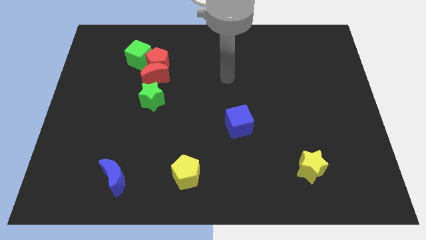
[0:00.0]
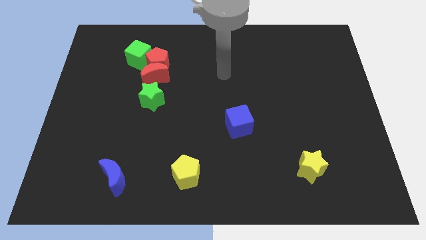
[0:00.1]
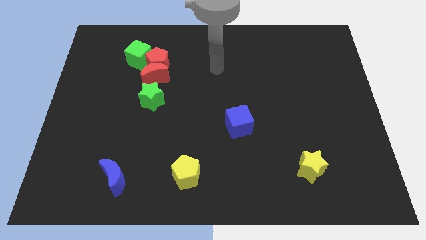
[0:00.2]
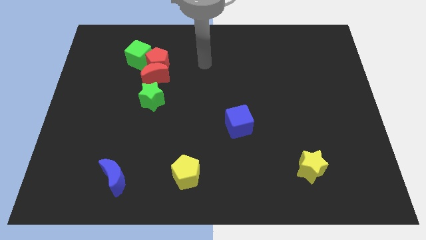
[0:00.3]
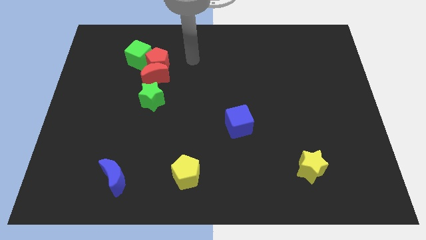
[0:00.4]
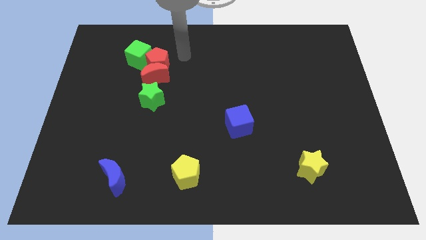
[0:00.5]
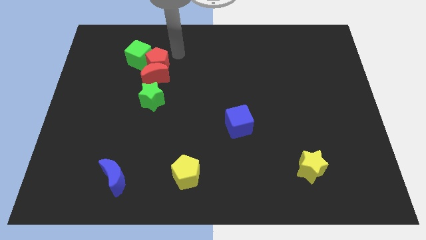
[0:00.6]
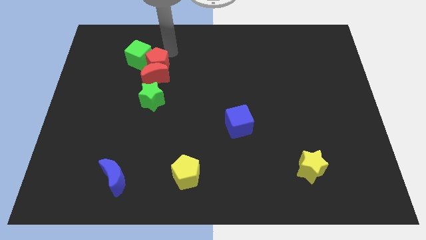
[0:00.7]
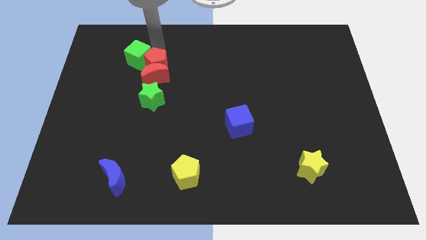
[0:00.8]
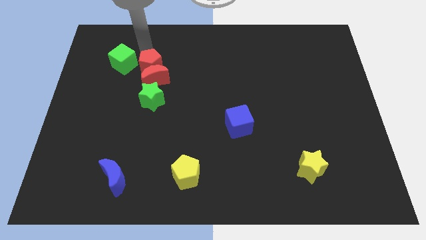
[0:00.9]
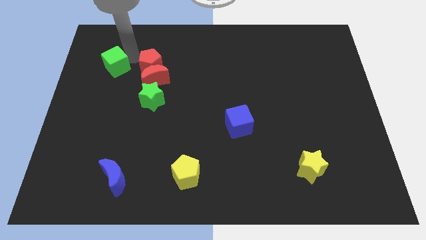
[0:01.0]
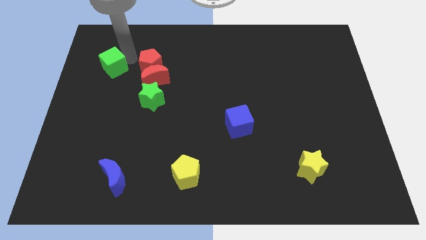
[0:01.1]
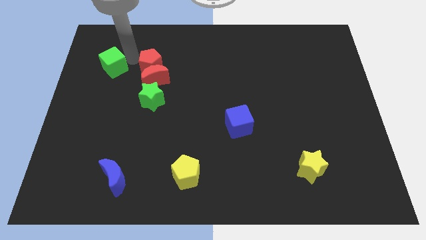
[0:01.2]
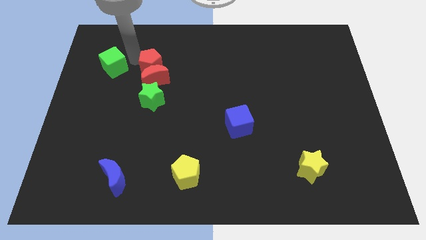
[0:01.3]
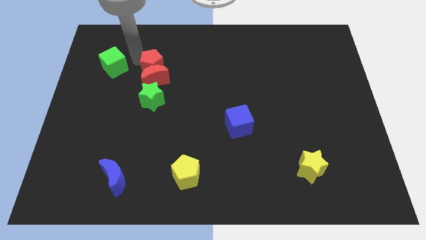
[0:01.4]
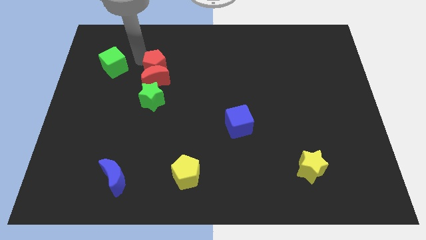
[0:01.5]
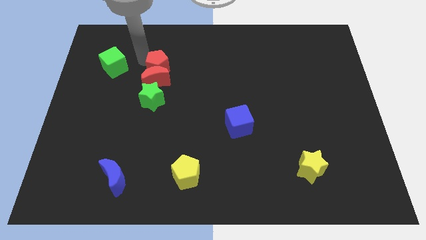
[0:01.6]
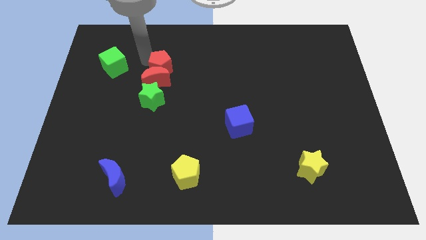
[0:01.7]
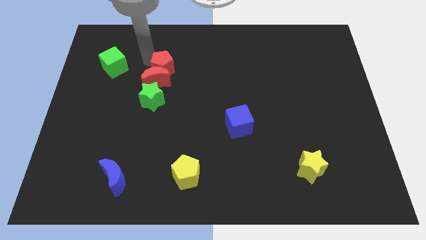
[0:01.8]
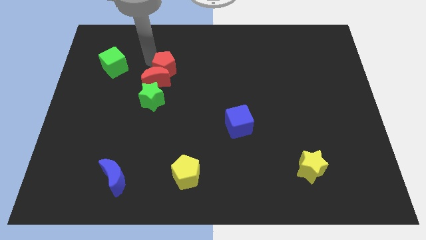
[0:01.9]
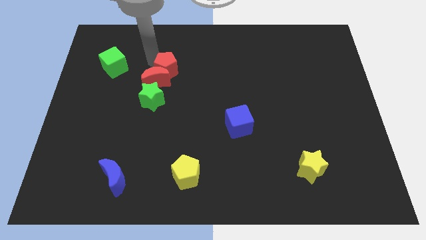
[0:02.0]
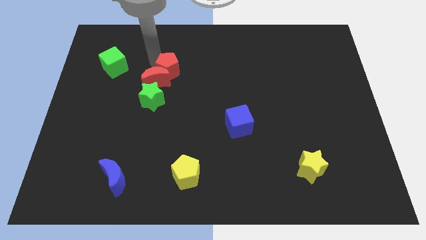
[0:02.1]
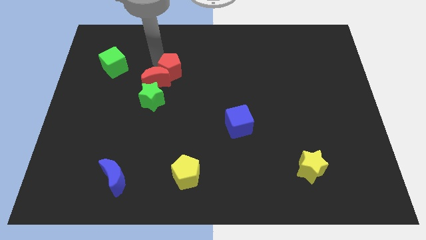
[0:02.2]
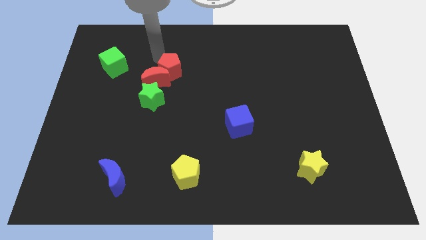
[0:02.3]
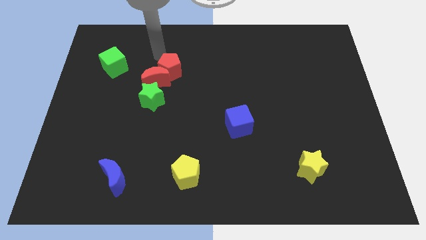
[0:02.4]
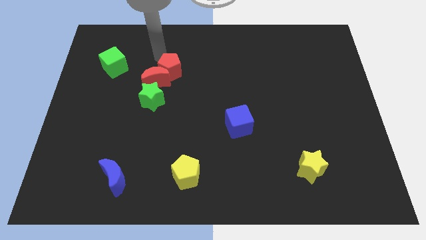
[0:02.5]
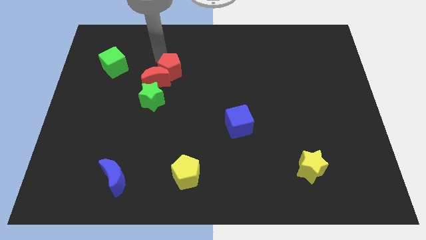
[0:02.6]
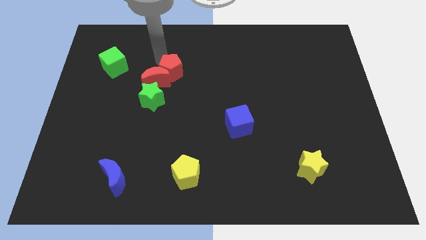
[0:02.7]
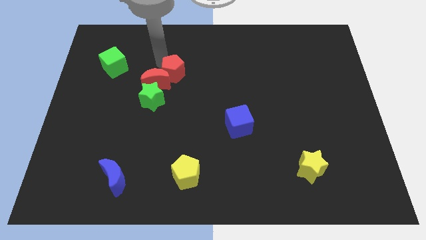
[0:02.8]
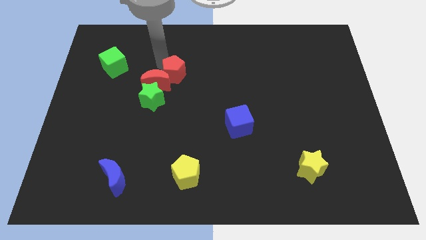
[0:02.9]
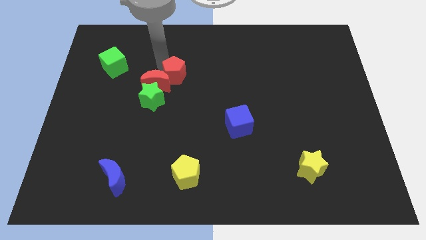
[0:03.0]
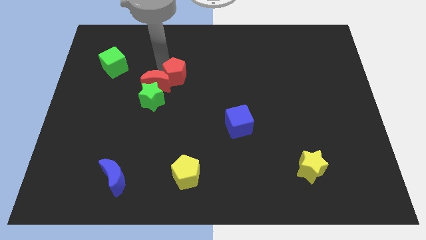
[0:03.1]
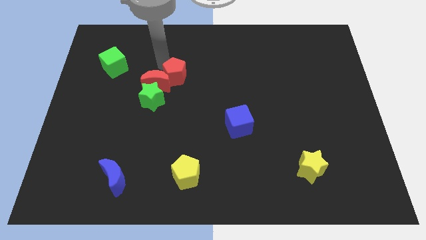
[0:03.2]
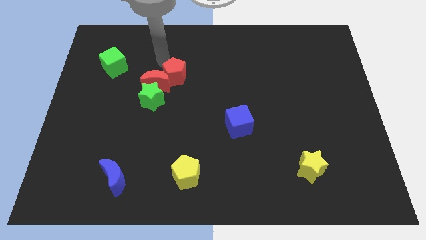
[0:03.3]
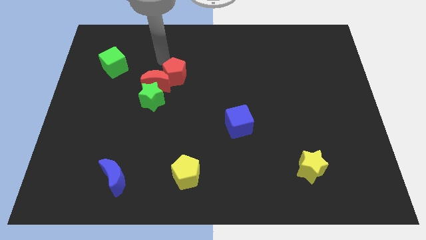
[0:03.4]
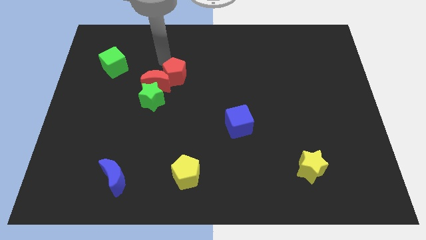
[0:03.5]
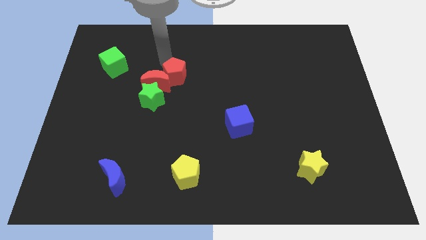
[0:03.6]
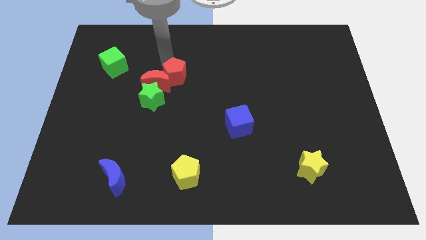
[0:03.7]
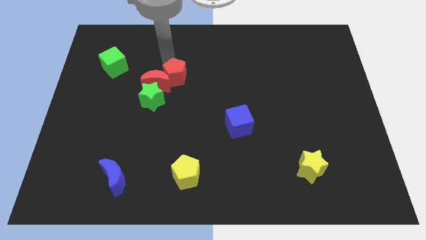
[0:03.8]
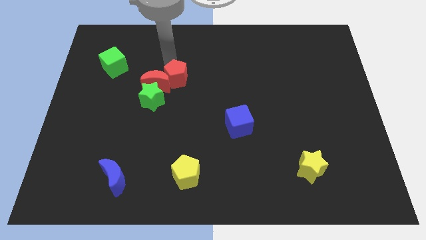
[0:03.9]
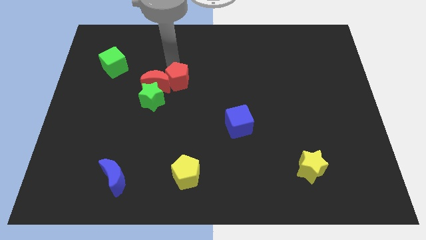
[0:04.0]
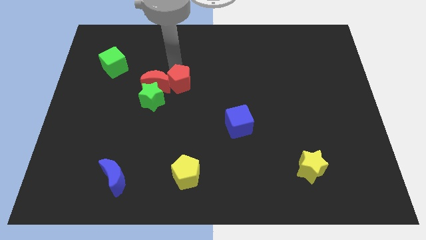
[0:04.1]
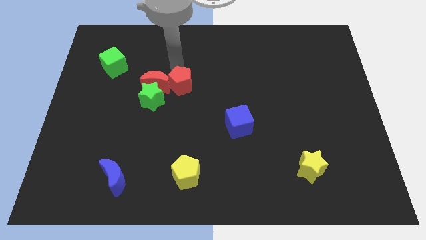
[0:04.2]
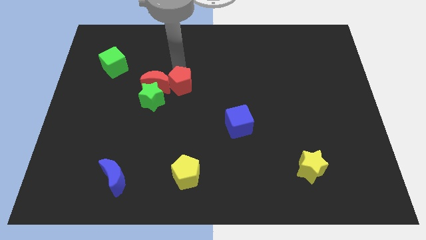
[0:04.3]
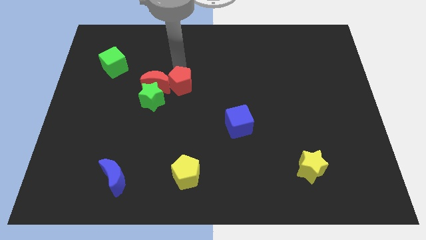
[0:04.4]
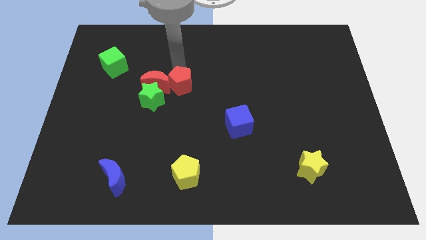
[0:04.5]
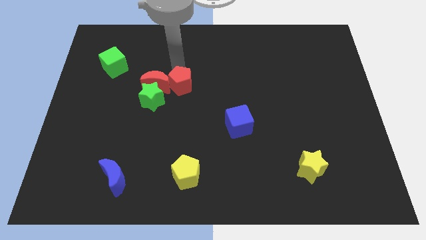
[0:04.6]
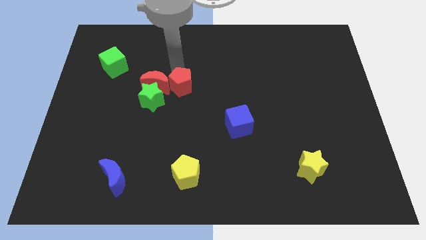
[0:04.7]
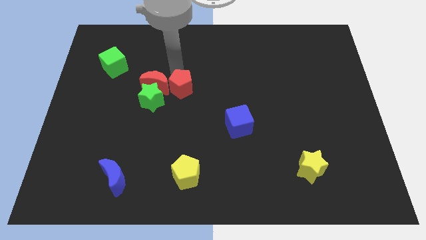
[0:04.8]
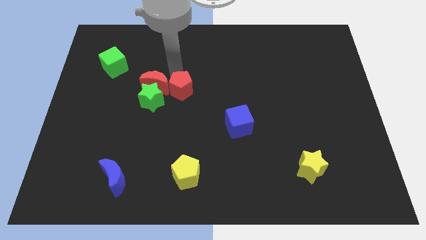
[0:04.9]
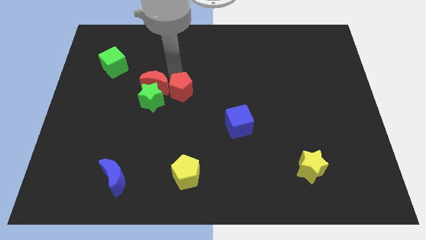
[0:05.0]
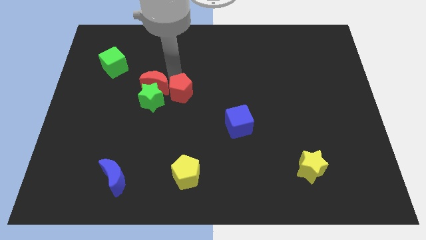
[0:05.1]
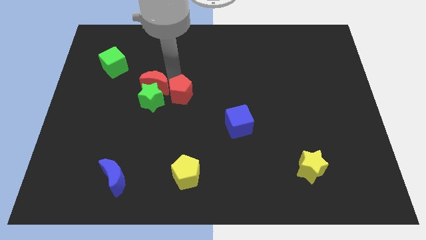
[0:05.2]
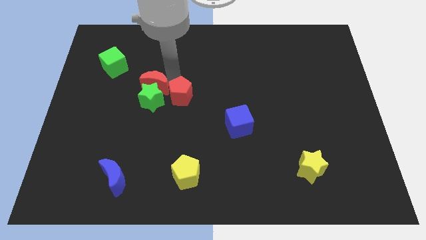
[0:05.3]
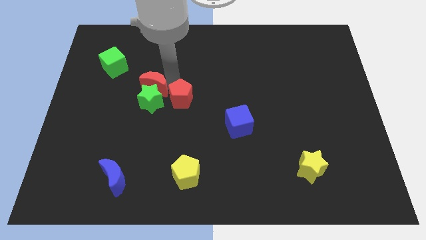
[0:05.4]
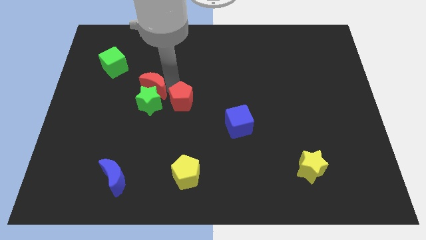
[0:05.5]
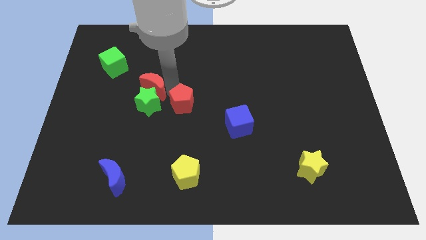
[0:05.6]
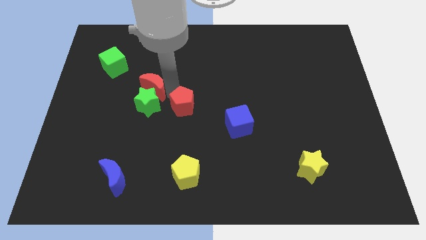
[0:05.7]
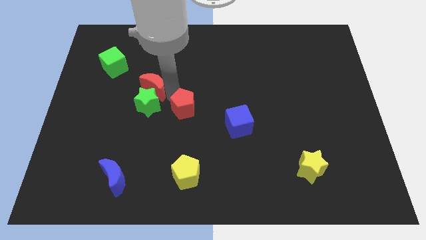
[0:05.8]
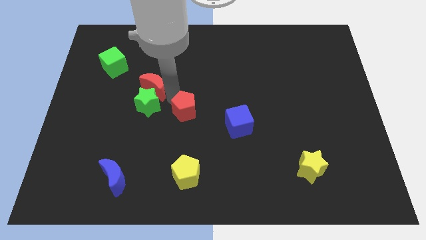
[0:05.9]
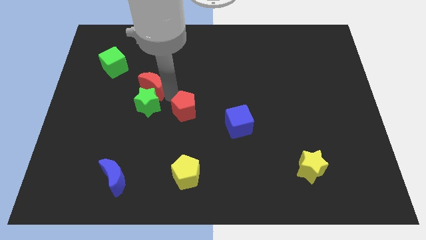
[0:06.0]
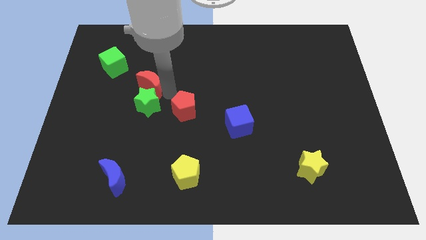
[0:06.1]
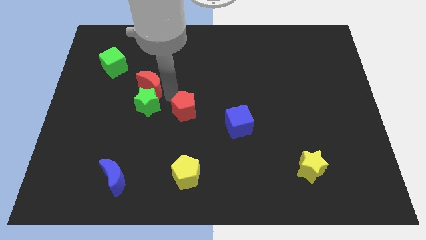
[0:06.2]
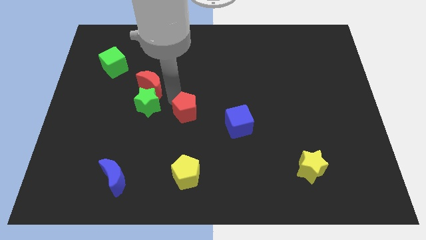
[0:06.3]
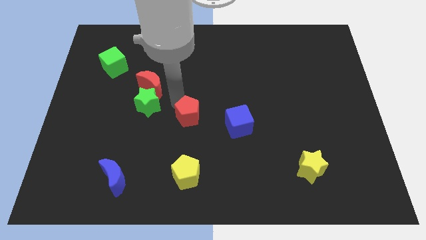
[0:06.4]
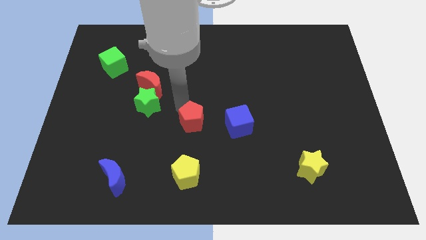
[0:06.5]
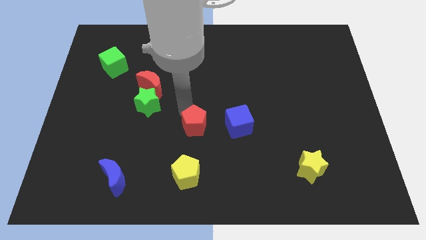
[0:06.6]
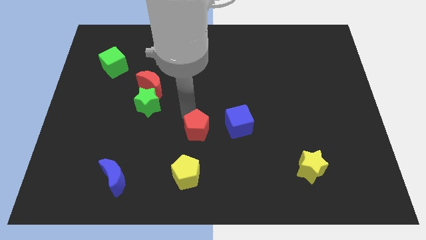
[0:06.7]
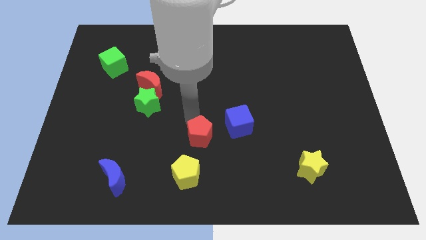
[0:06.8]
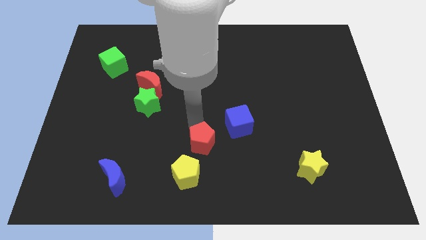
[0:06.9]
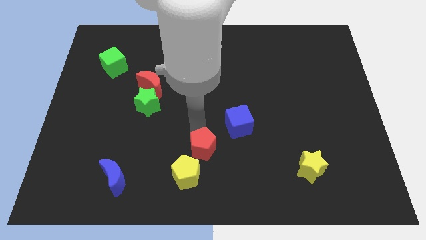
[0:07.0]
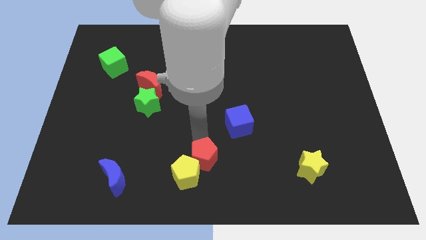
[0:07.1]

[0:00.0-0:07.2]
slide the red pentagon to the bottom side
